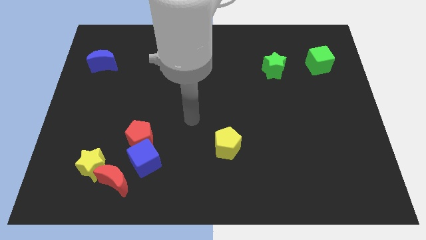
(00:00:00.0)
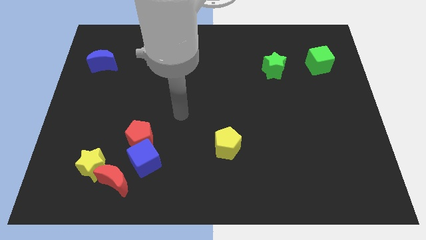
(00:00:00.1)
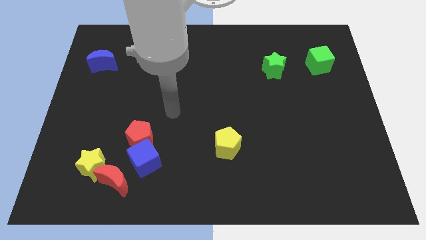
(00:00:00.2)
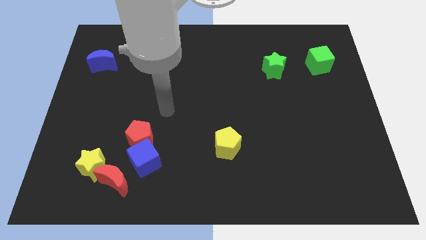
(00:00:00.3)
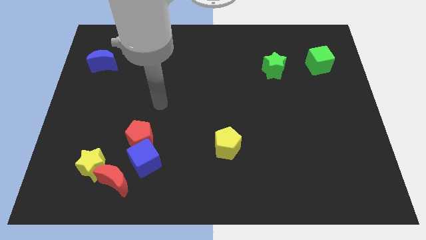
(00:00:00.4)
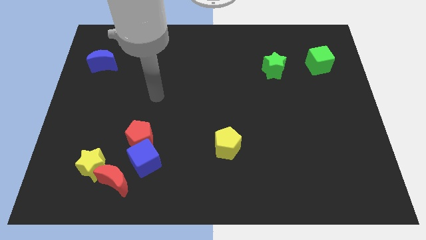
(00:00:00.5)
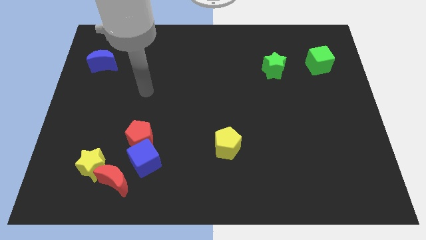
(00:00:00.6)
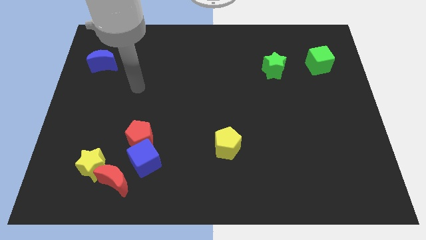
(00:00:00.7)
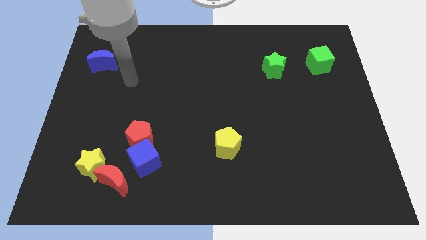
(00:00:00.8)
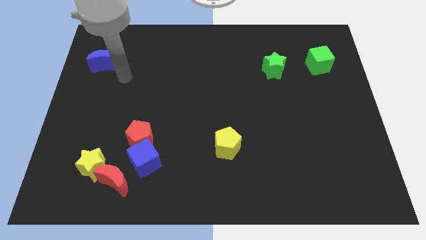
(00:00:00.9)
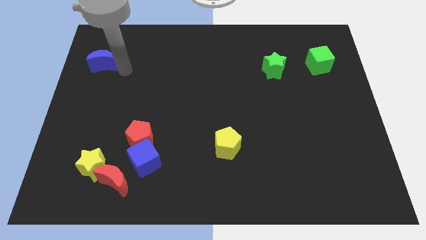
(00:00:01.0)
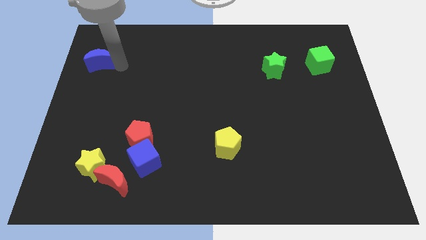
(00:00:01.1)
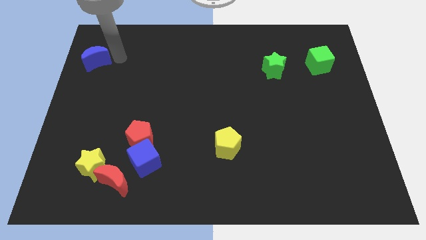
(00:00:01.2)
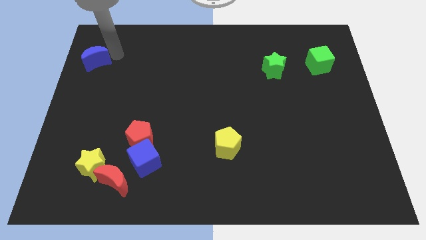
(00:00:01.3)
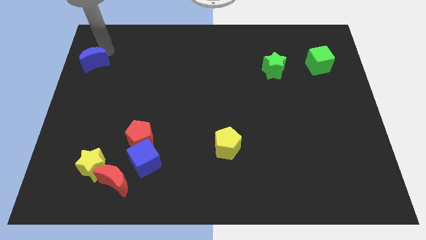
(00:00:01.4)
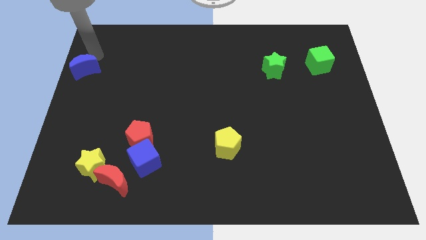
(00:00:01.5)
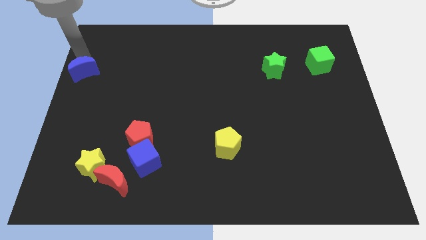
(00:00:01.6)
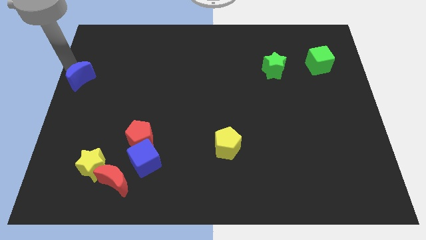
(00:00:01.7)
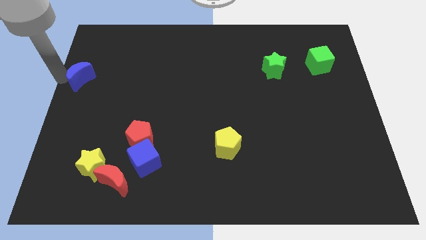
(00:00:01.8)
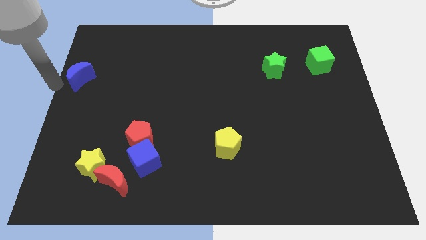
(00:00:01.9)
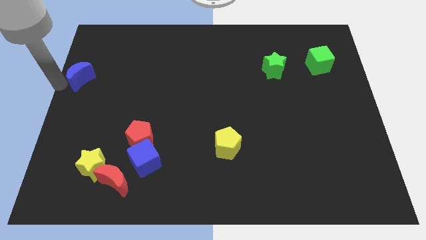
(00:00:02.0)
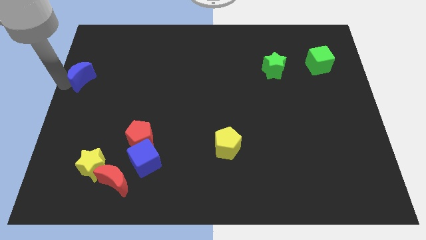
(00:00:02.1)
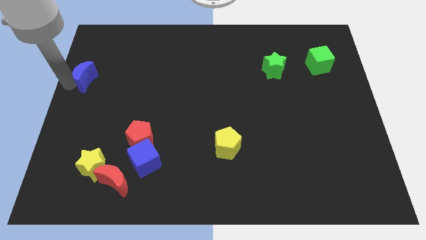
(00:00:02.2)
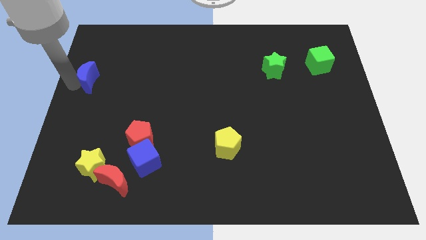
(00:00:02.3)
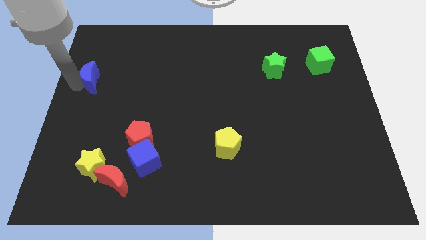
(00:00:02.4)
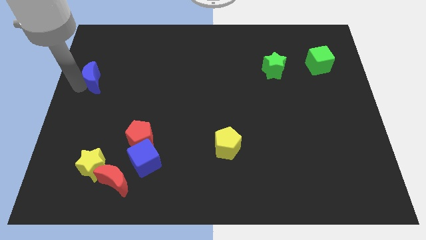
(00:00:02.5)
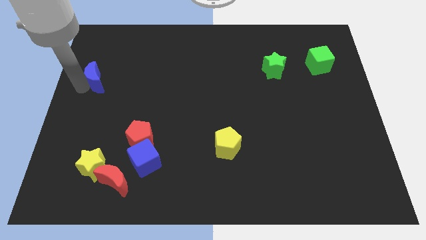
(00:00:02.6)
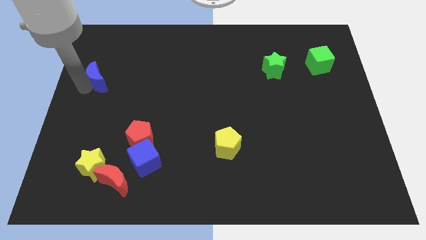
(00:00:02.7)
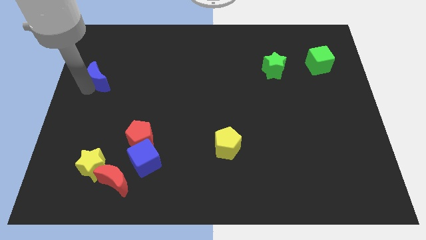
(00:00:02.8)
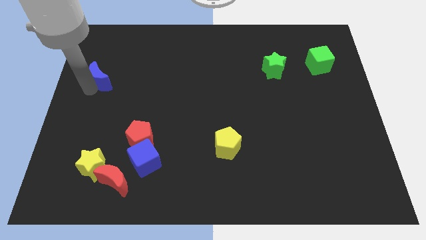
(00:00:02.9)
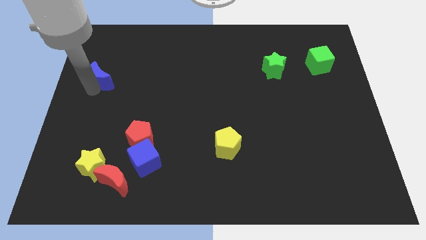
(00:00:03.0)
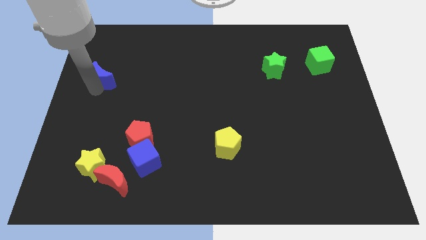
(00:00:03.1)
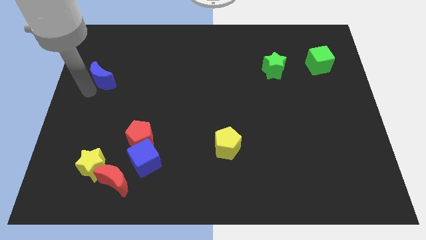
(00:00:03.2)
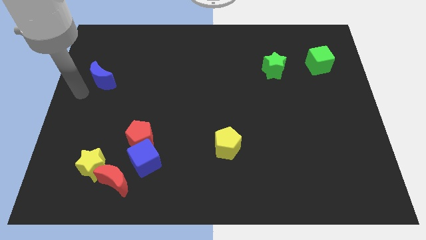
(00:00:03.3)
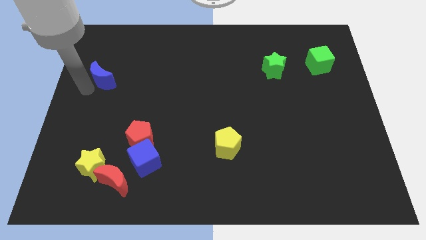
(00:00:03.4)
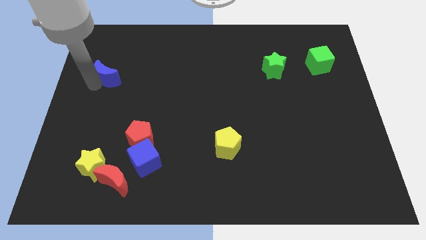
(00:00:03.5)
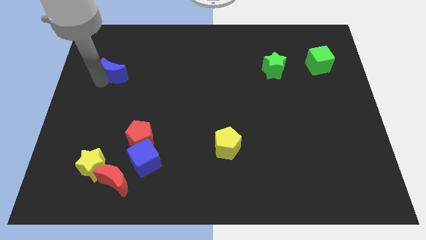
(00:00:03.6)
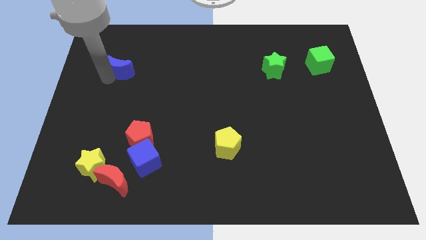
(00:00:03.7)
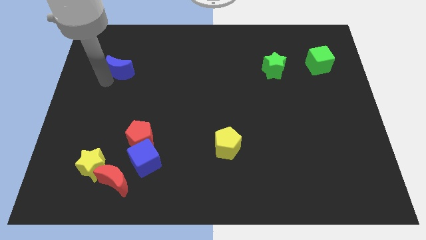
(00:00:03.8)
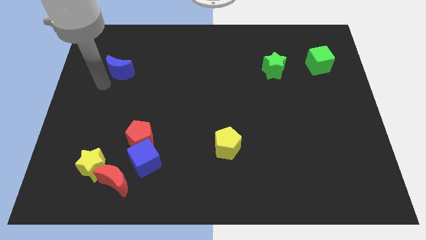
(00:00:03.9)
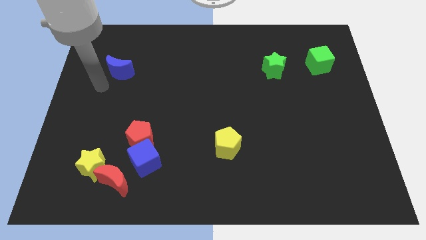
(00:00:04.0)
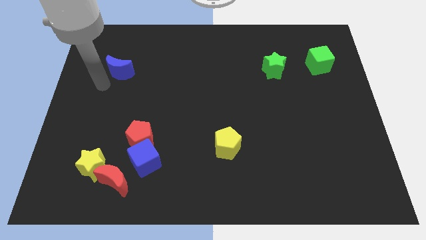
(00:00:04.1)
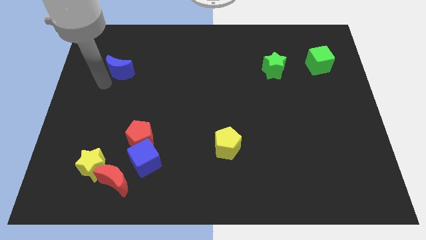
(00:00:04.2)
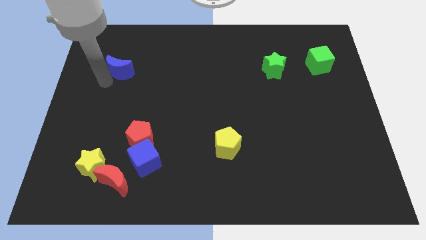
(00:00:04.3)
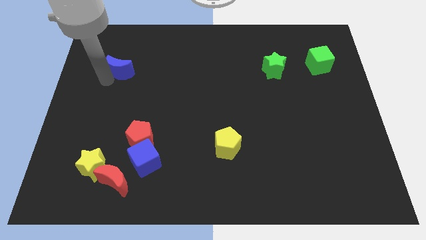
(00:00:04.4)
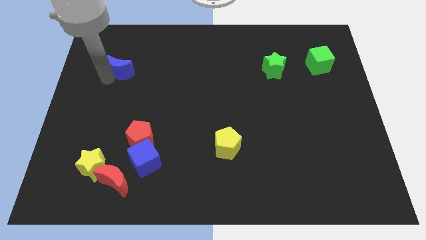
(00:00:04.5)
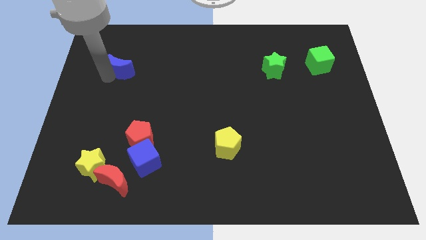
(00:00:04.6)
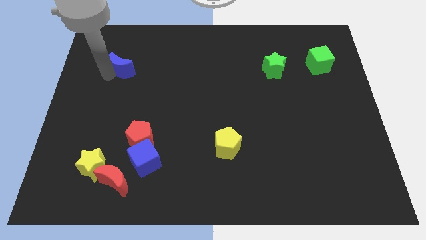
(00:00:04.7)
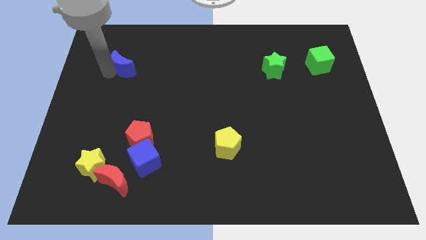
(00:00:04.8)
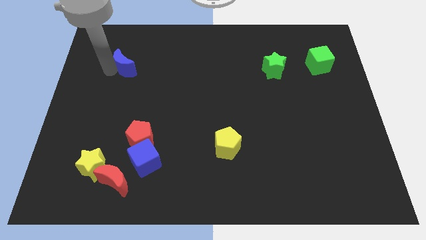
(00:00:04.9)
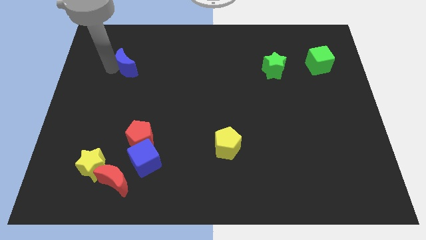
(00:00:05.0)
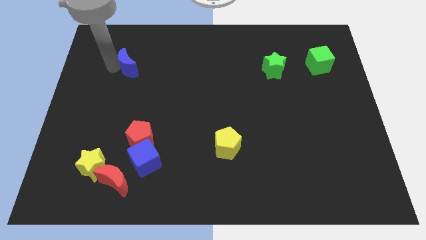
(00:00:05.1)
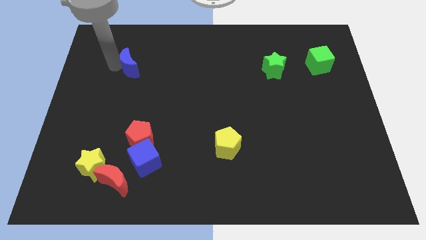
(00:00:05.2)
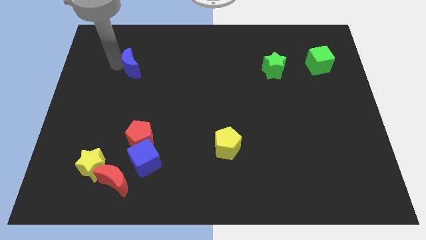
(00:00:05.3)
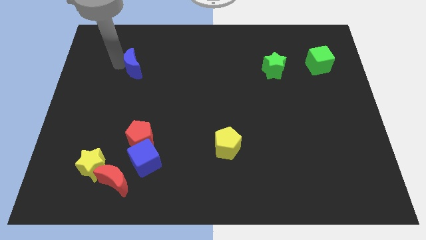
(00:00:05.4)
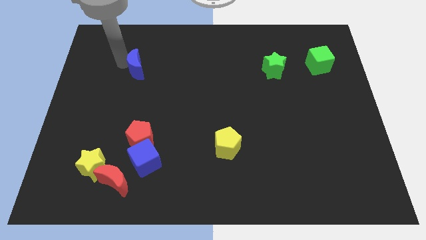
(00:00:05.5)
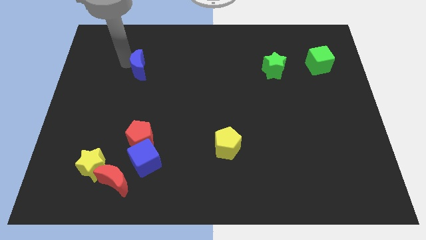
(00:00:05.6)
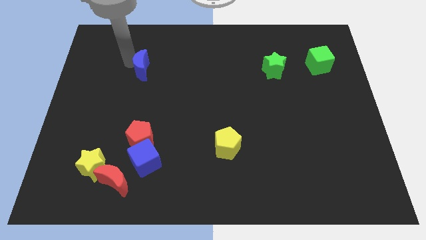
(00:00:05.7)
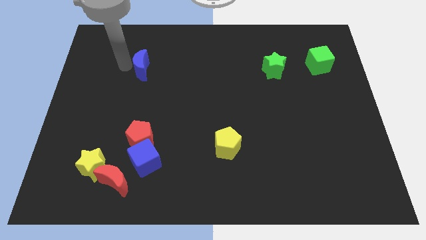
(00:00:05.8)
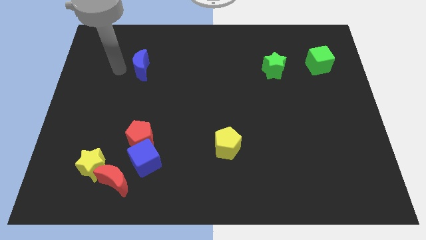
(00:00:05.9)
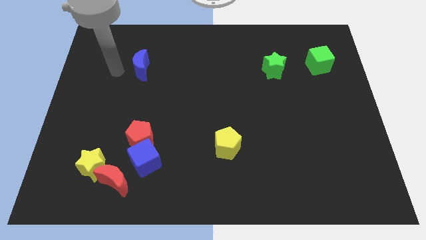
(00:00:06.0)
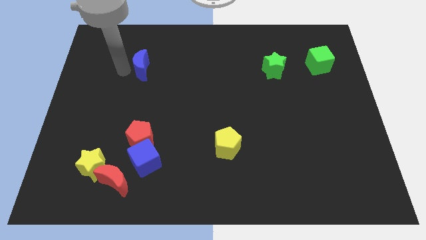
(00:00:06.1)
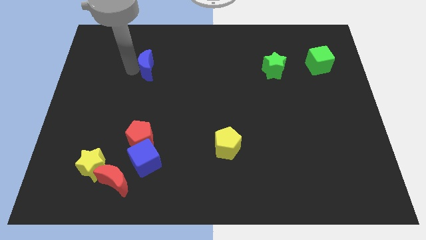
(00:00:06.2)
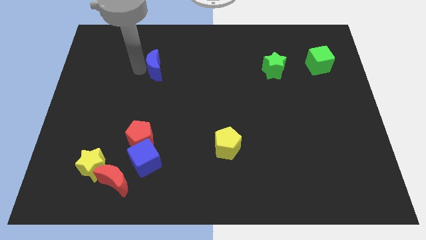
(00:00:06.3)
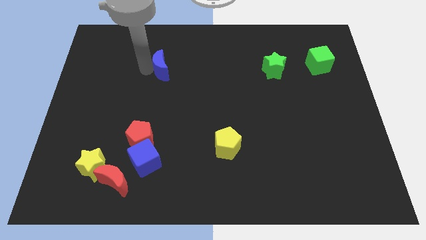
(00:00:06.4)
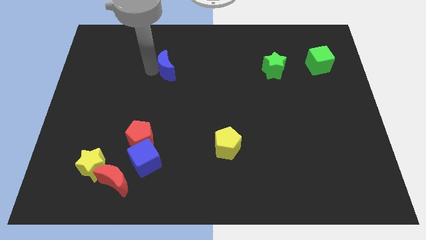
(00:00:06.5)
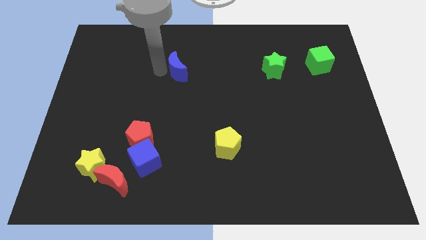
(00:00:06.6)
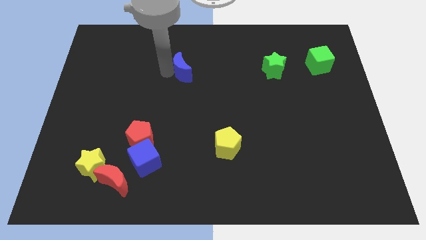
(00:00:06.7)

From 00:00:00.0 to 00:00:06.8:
push the blue moon to the right

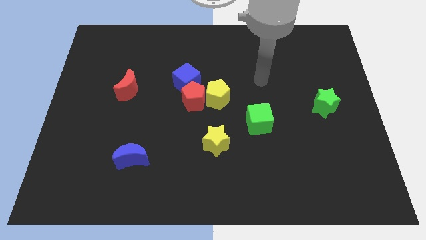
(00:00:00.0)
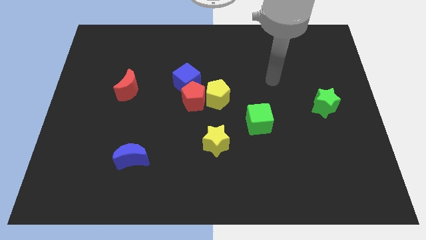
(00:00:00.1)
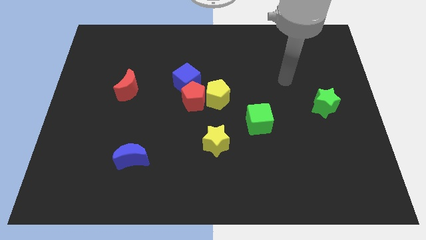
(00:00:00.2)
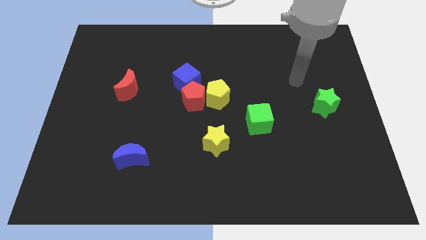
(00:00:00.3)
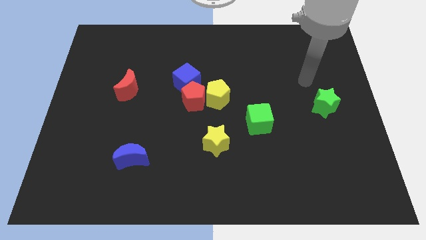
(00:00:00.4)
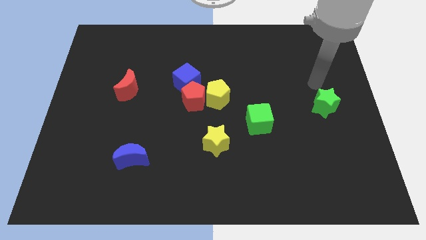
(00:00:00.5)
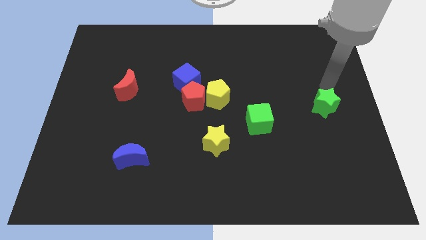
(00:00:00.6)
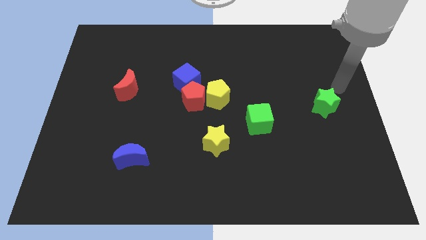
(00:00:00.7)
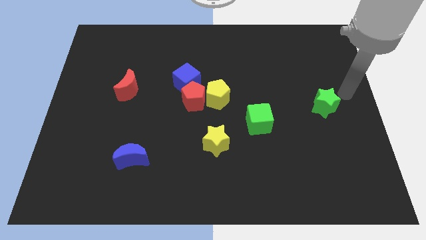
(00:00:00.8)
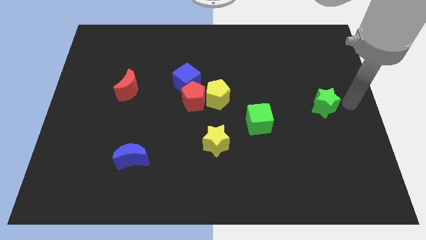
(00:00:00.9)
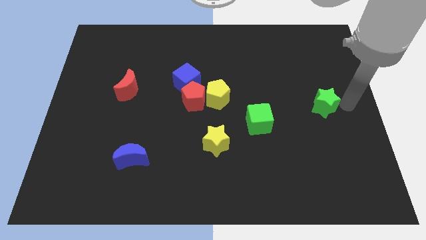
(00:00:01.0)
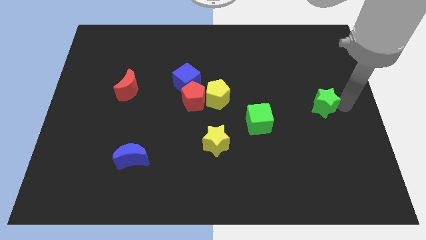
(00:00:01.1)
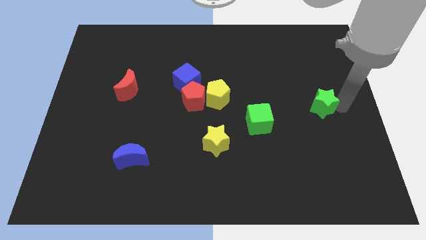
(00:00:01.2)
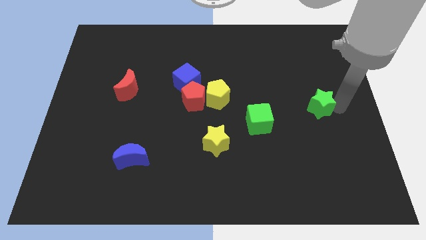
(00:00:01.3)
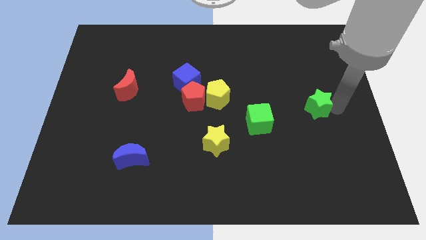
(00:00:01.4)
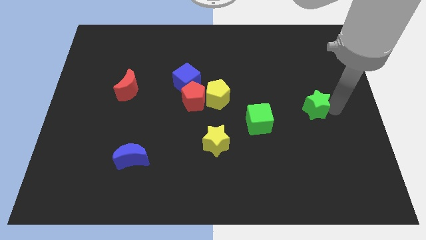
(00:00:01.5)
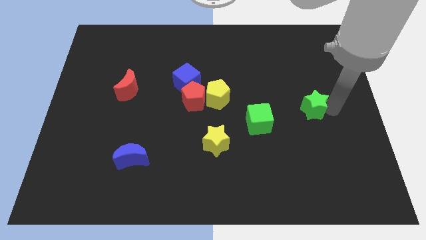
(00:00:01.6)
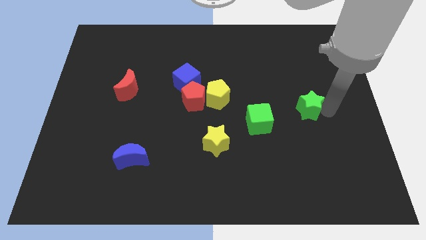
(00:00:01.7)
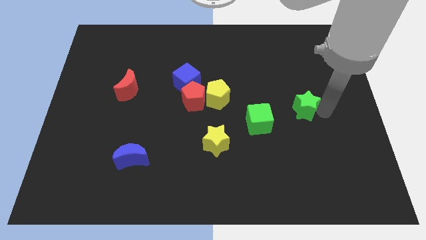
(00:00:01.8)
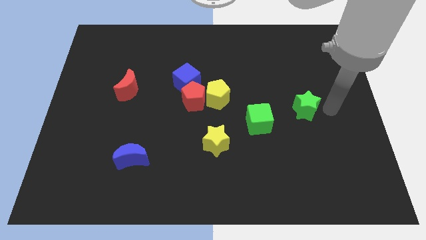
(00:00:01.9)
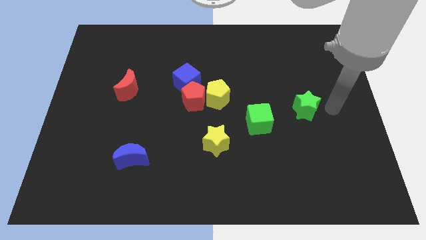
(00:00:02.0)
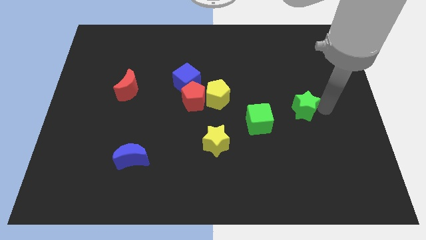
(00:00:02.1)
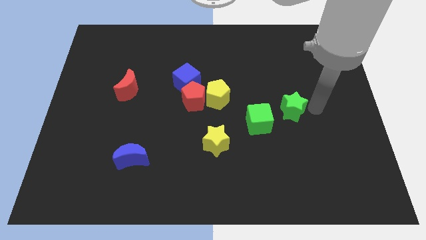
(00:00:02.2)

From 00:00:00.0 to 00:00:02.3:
slightly slide the green star left
